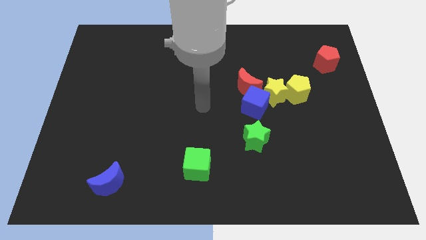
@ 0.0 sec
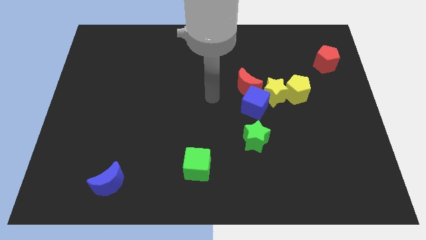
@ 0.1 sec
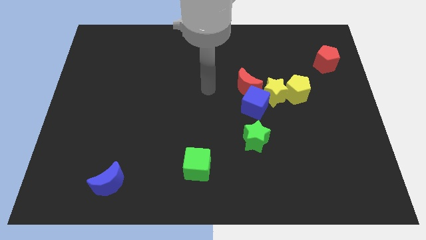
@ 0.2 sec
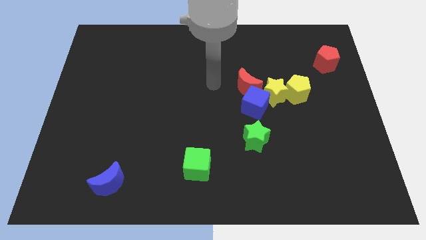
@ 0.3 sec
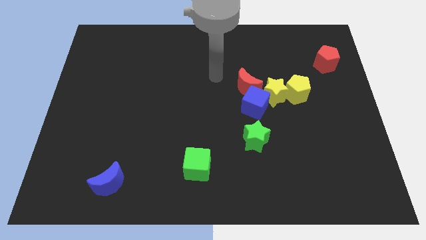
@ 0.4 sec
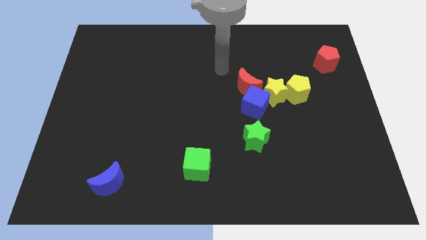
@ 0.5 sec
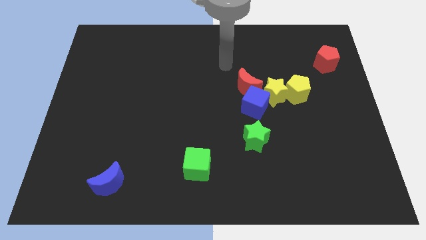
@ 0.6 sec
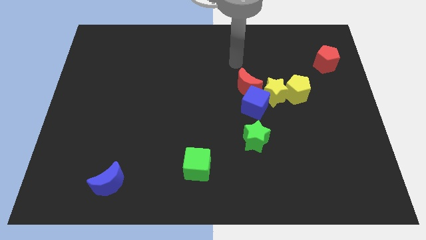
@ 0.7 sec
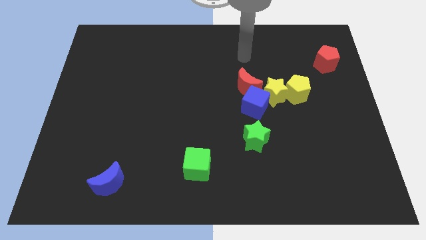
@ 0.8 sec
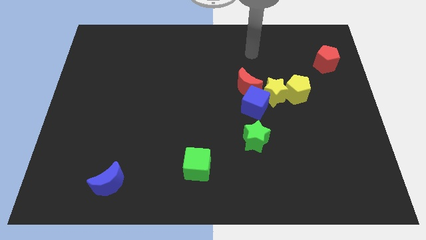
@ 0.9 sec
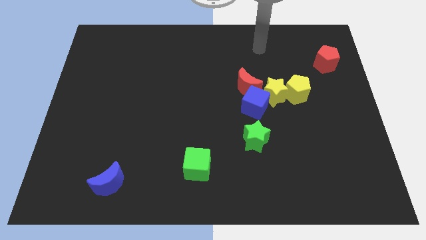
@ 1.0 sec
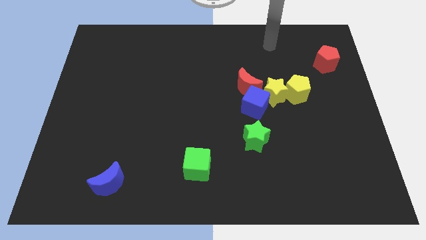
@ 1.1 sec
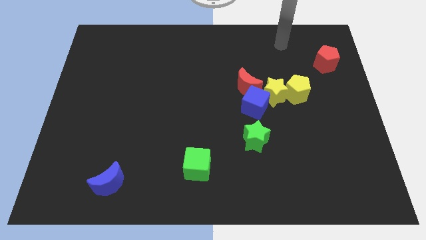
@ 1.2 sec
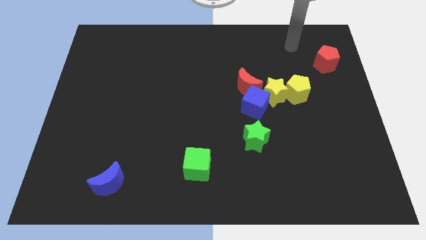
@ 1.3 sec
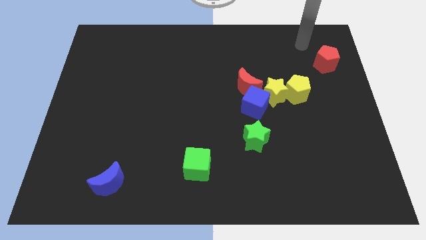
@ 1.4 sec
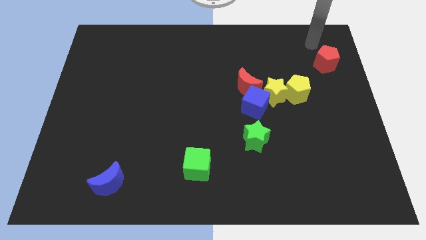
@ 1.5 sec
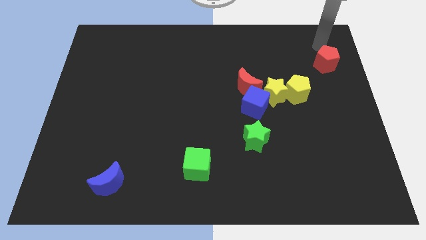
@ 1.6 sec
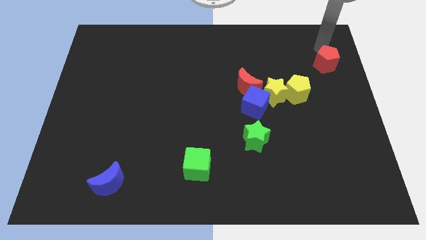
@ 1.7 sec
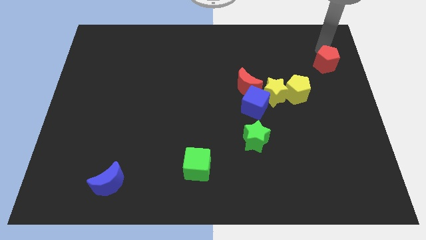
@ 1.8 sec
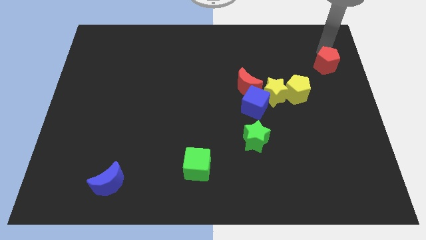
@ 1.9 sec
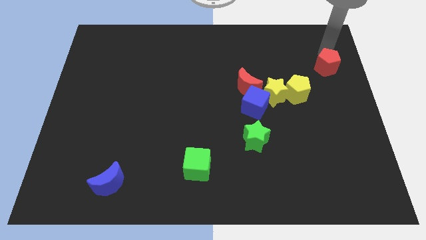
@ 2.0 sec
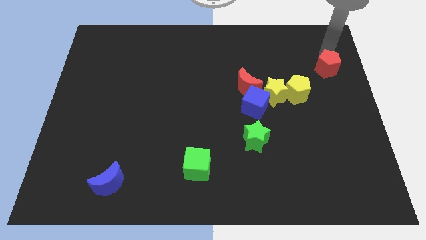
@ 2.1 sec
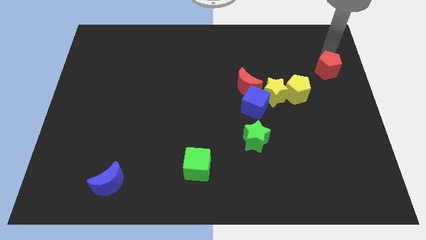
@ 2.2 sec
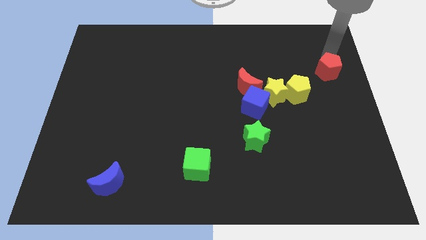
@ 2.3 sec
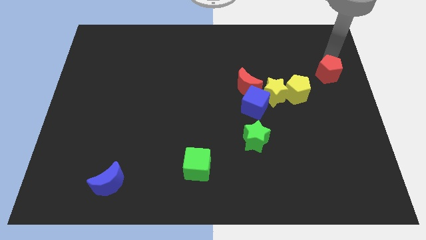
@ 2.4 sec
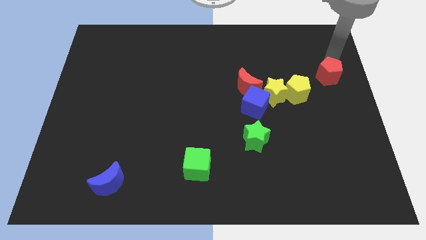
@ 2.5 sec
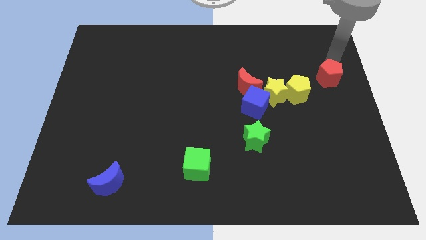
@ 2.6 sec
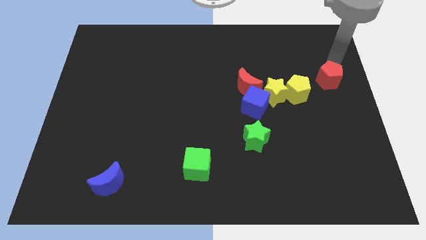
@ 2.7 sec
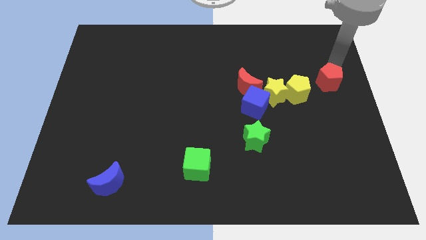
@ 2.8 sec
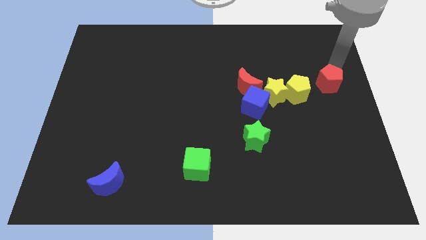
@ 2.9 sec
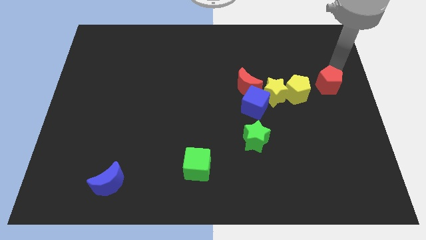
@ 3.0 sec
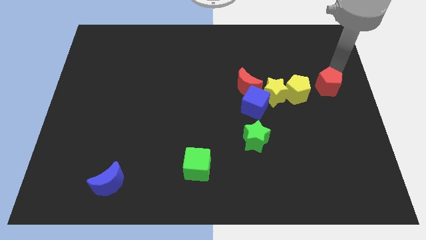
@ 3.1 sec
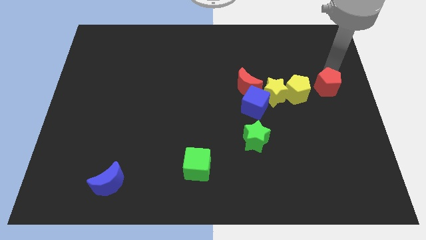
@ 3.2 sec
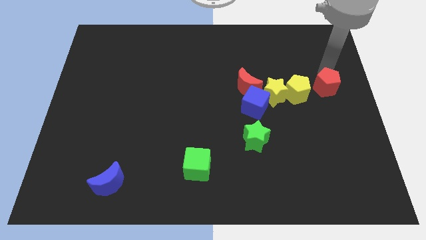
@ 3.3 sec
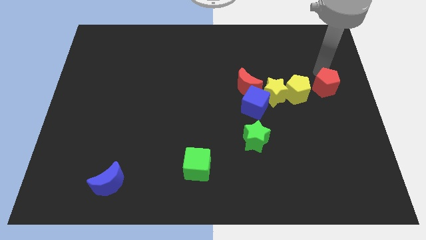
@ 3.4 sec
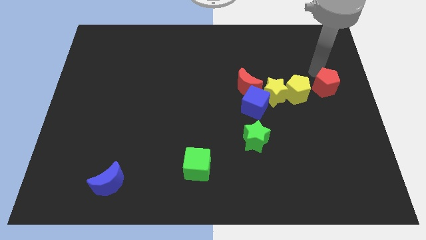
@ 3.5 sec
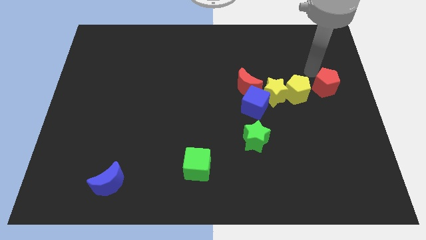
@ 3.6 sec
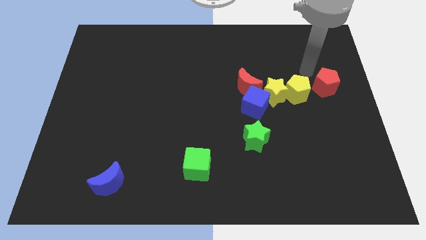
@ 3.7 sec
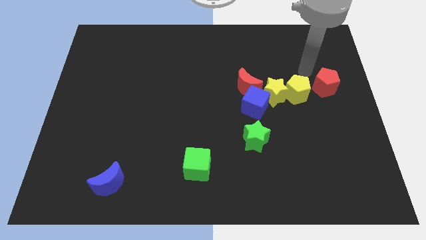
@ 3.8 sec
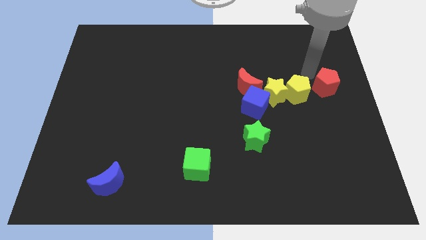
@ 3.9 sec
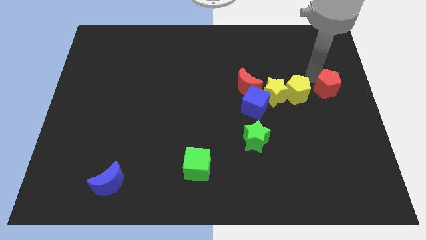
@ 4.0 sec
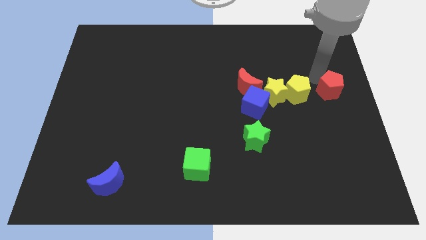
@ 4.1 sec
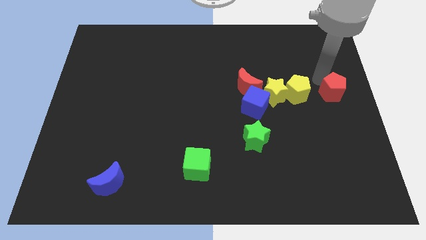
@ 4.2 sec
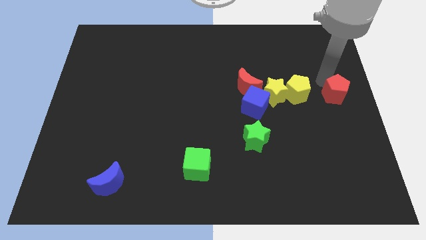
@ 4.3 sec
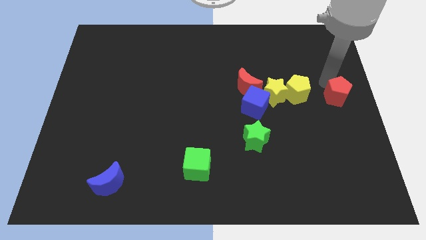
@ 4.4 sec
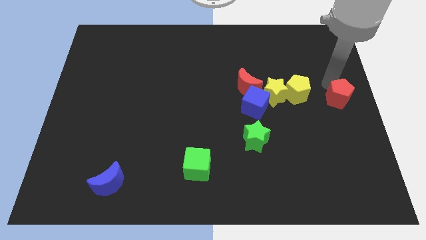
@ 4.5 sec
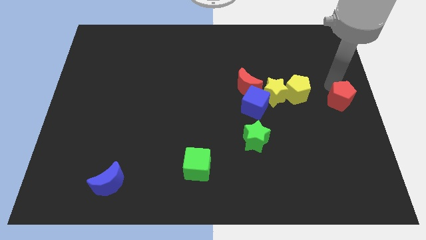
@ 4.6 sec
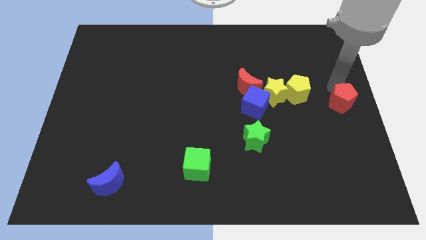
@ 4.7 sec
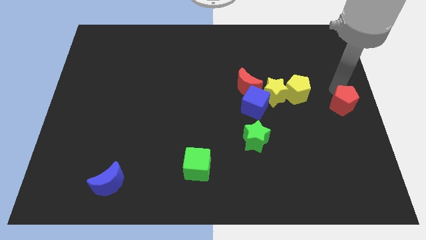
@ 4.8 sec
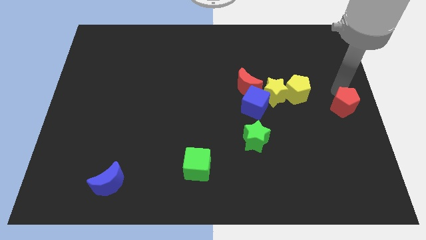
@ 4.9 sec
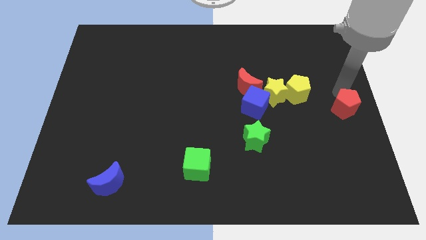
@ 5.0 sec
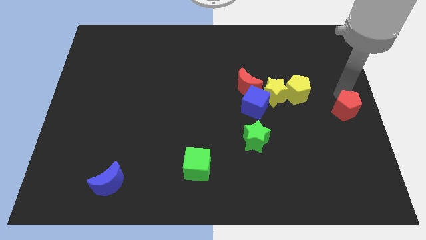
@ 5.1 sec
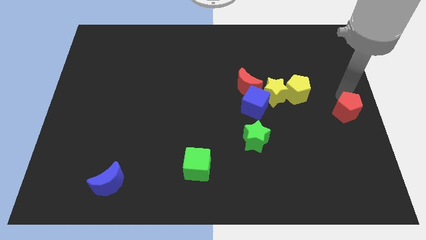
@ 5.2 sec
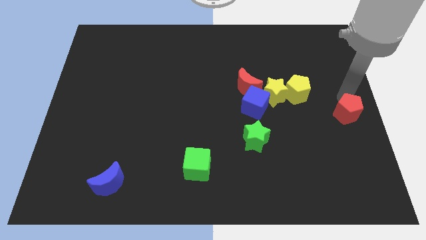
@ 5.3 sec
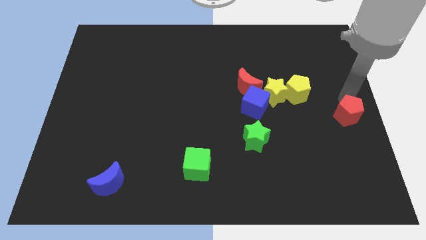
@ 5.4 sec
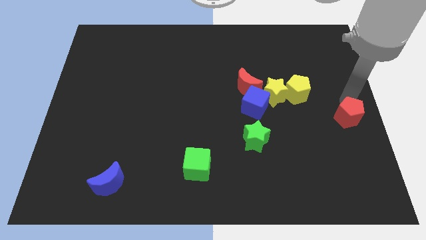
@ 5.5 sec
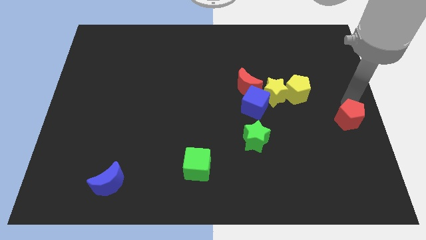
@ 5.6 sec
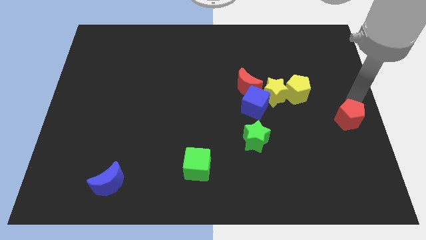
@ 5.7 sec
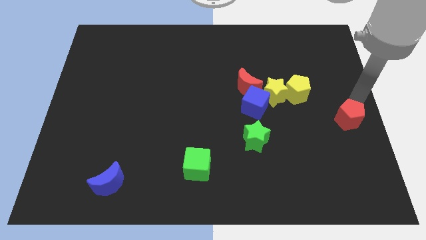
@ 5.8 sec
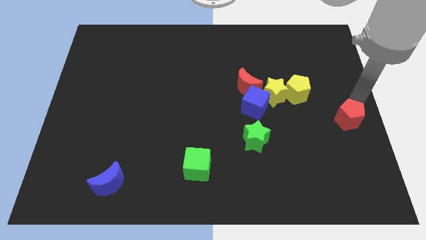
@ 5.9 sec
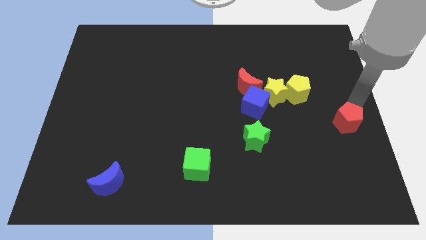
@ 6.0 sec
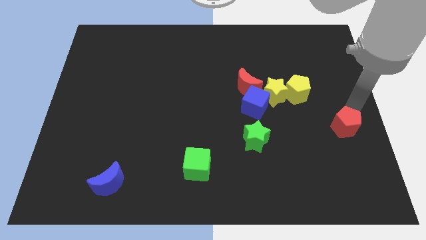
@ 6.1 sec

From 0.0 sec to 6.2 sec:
move the red pentagon down

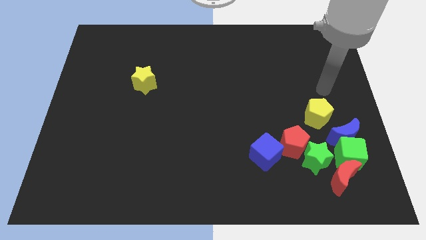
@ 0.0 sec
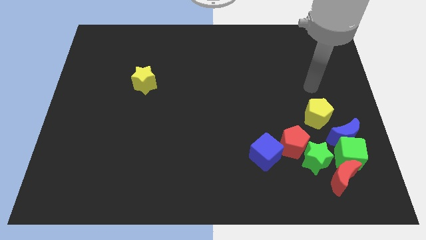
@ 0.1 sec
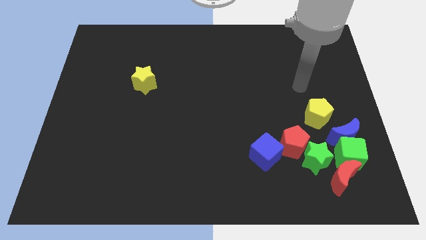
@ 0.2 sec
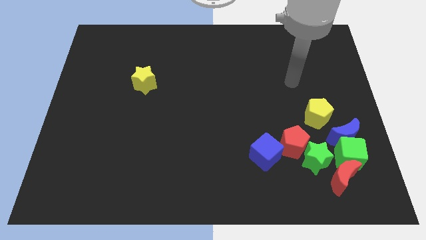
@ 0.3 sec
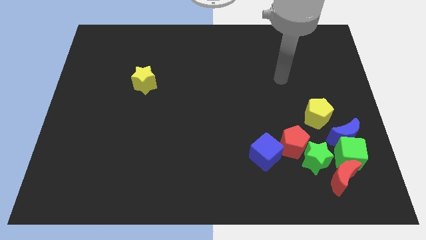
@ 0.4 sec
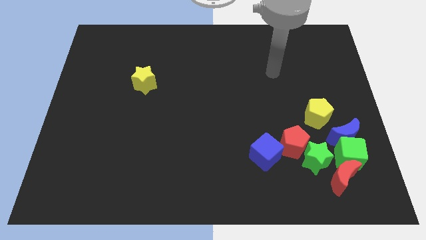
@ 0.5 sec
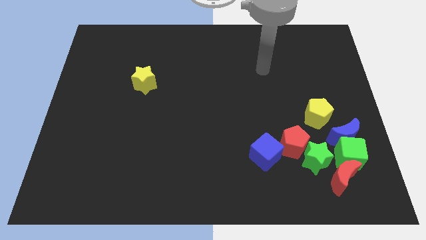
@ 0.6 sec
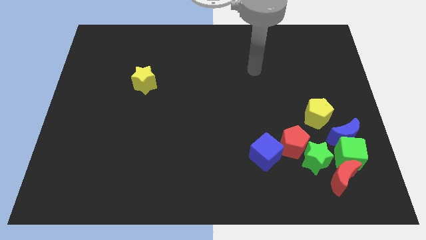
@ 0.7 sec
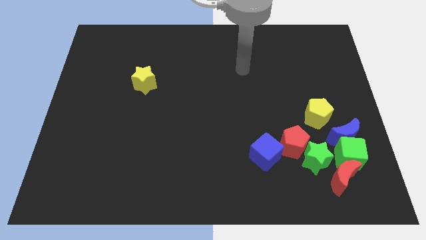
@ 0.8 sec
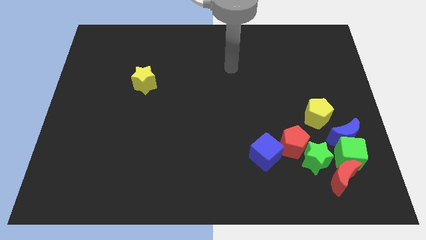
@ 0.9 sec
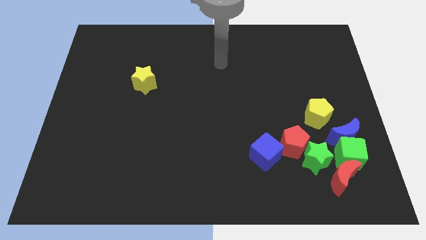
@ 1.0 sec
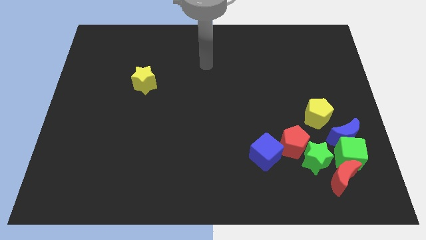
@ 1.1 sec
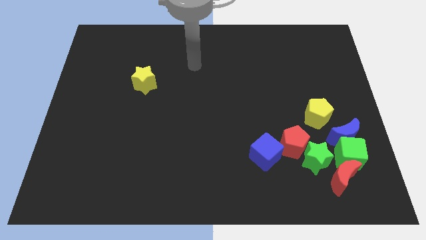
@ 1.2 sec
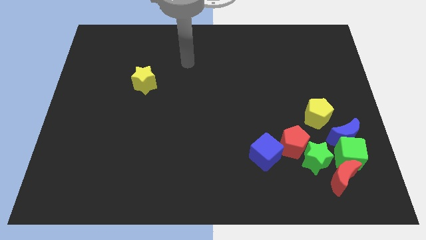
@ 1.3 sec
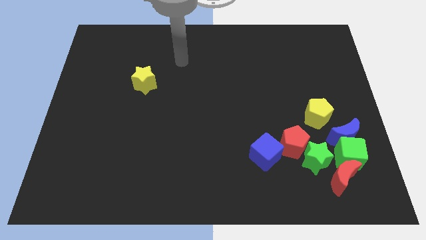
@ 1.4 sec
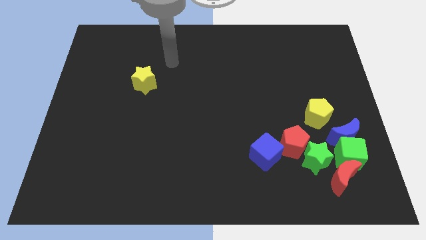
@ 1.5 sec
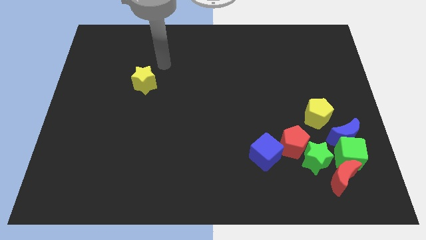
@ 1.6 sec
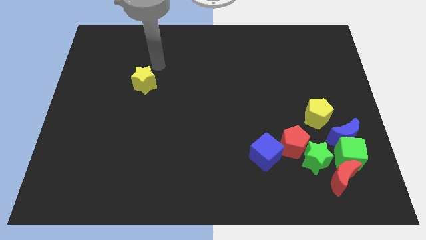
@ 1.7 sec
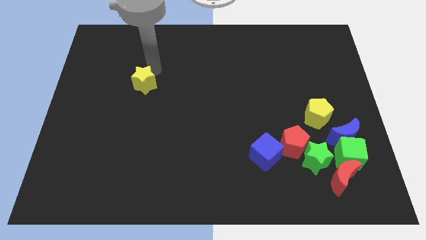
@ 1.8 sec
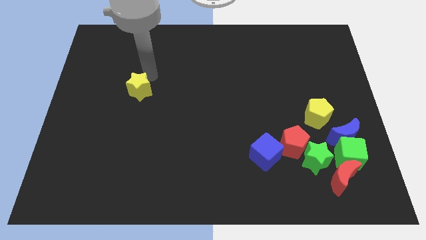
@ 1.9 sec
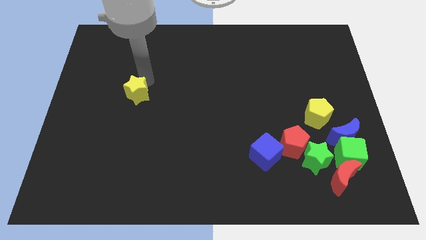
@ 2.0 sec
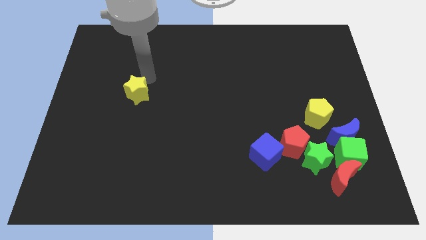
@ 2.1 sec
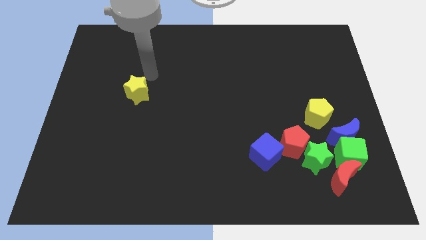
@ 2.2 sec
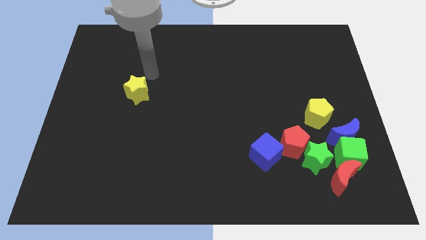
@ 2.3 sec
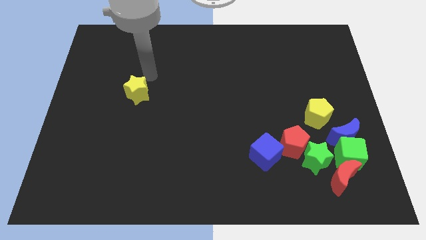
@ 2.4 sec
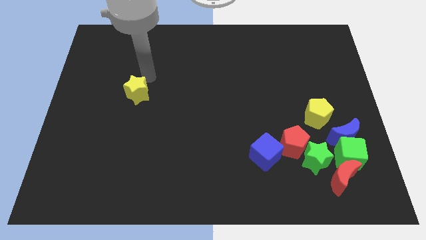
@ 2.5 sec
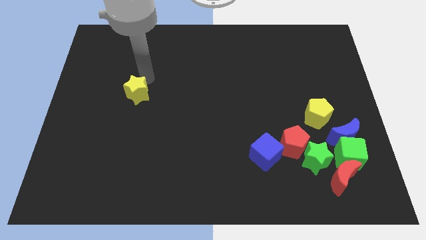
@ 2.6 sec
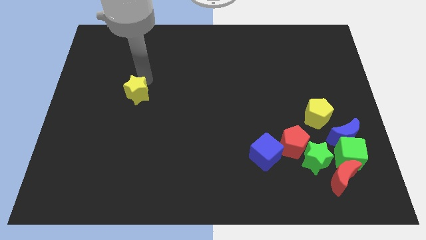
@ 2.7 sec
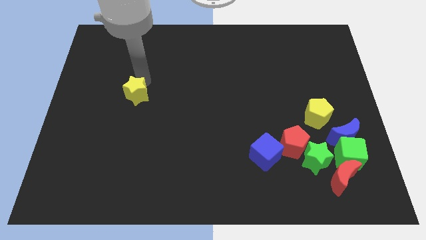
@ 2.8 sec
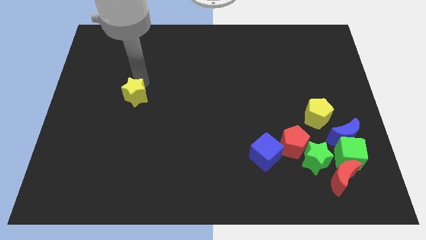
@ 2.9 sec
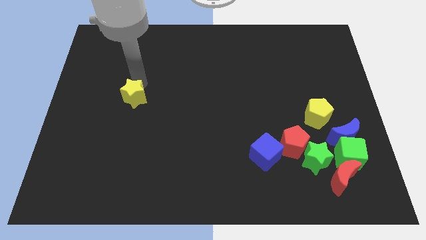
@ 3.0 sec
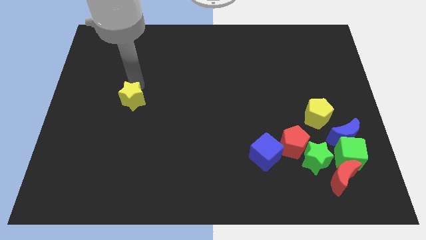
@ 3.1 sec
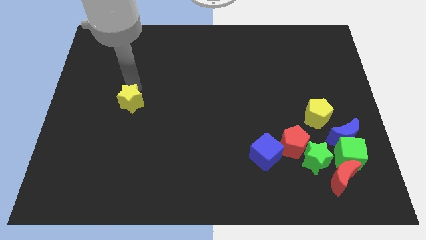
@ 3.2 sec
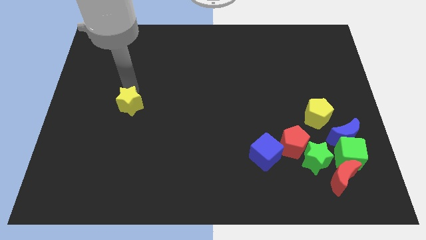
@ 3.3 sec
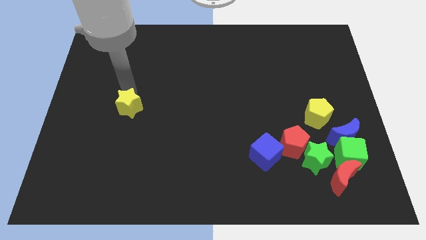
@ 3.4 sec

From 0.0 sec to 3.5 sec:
slightly push the yellow star downwards
